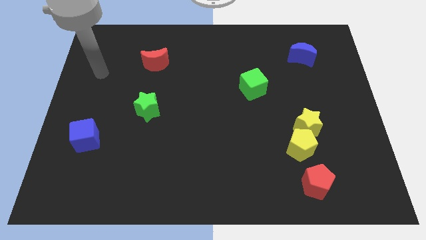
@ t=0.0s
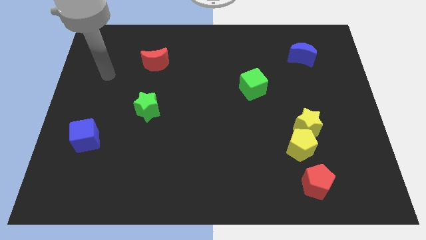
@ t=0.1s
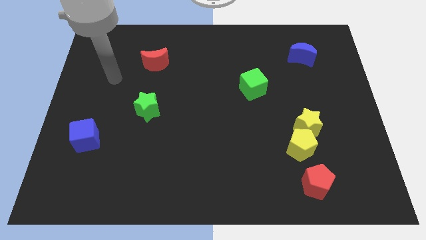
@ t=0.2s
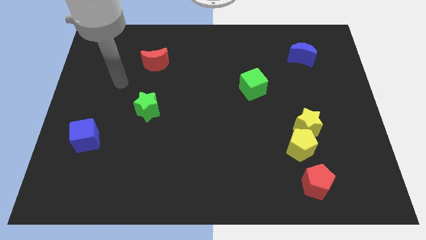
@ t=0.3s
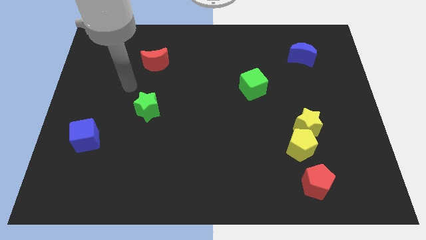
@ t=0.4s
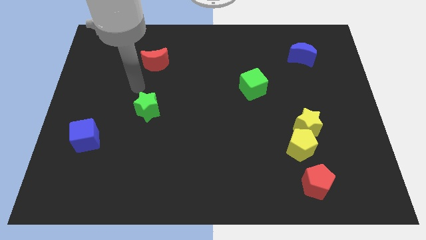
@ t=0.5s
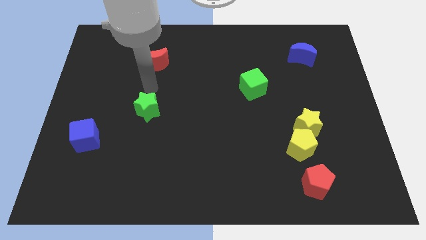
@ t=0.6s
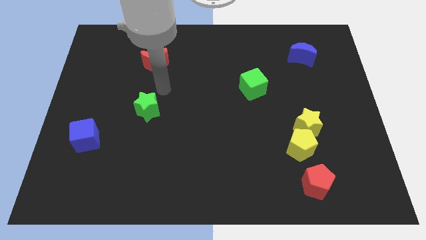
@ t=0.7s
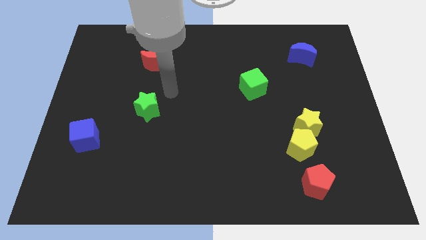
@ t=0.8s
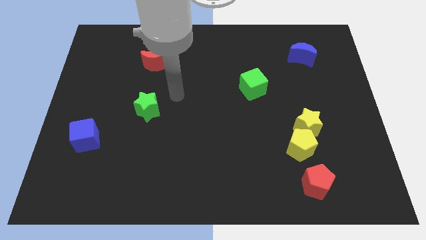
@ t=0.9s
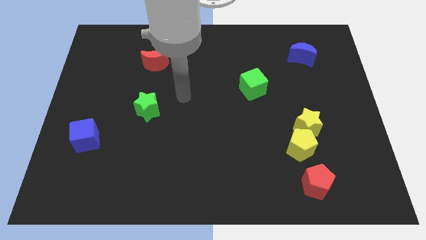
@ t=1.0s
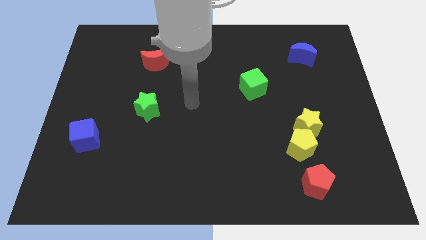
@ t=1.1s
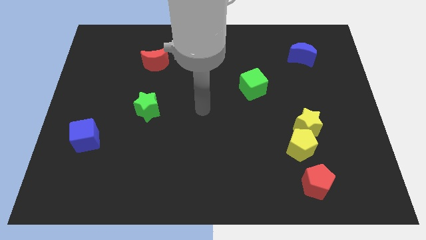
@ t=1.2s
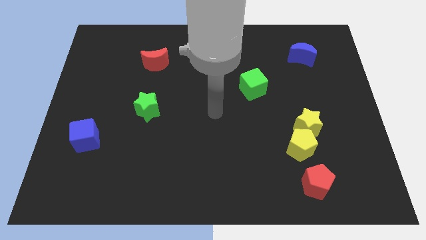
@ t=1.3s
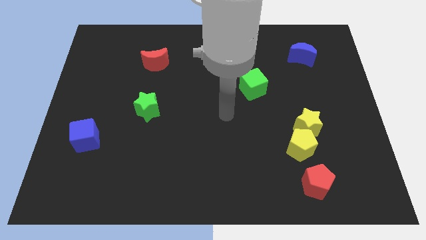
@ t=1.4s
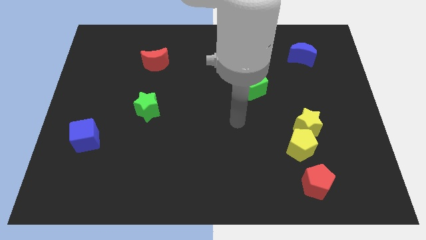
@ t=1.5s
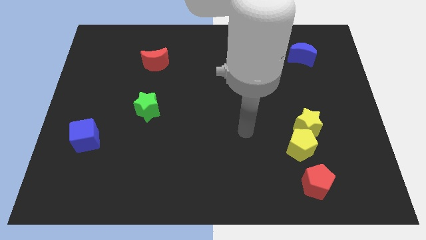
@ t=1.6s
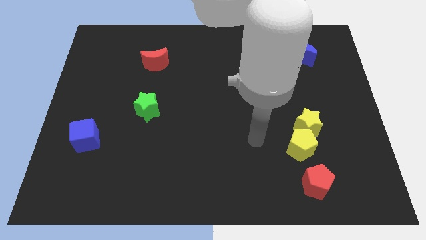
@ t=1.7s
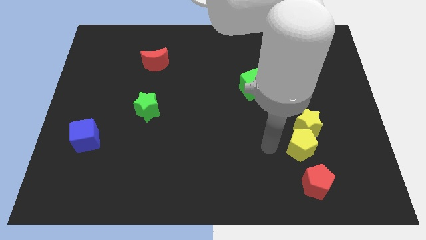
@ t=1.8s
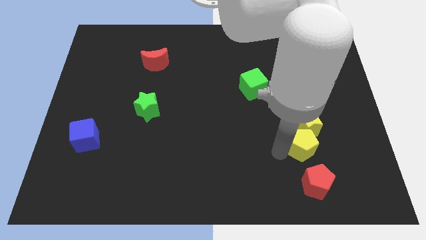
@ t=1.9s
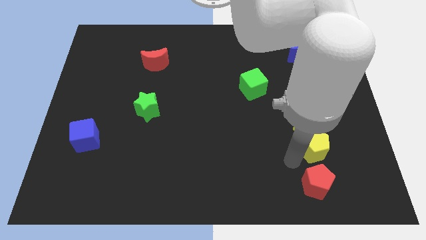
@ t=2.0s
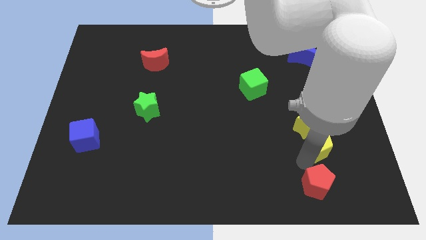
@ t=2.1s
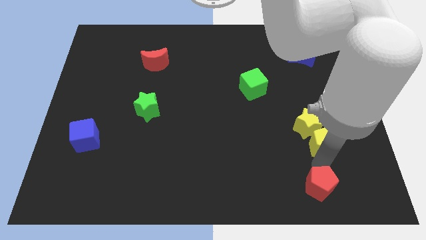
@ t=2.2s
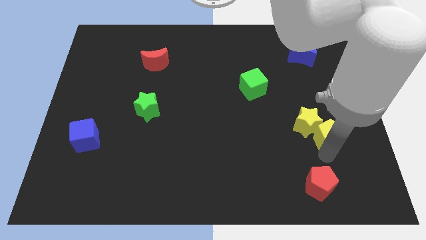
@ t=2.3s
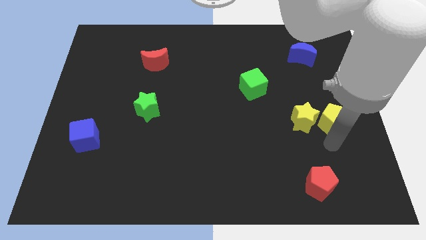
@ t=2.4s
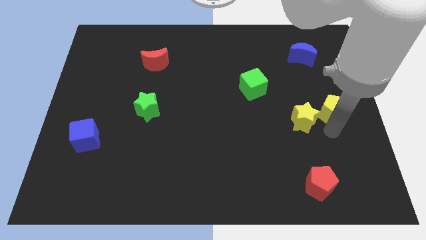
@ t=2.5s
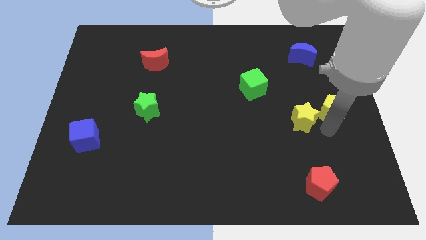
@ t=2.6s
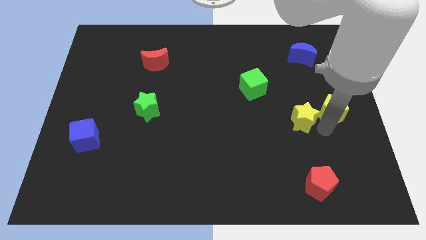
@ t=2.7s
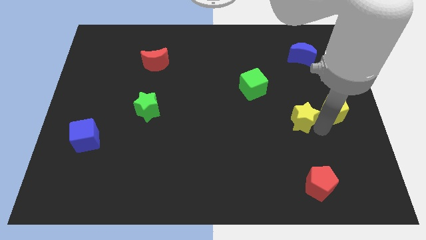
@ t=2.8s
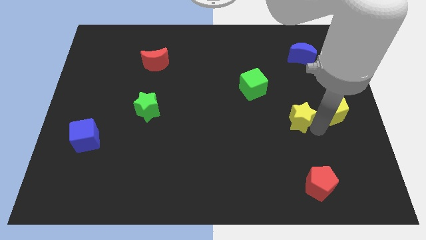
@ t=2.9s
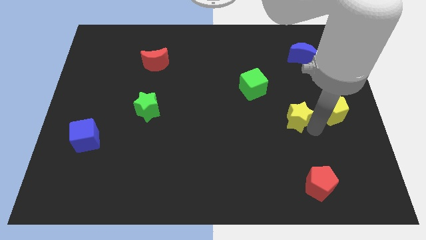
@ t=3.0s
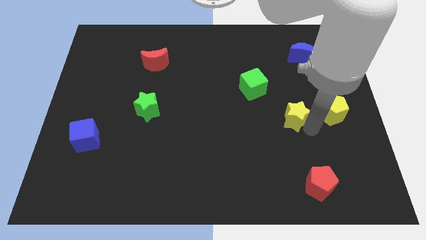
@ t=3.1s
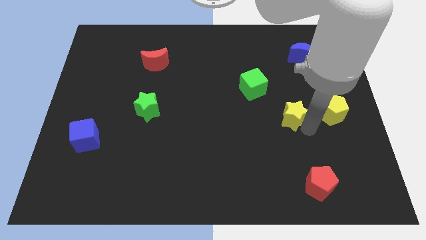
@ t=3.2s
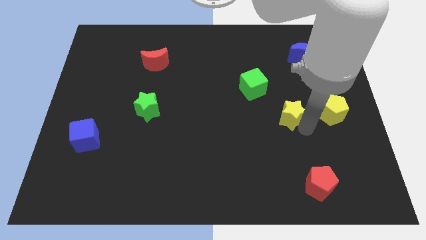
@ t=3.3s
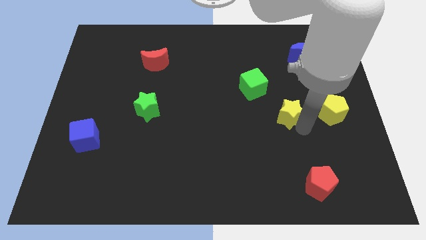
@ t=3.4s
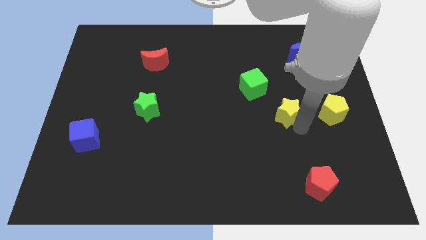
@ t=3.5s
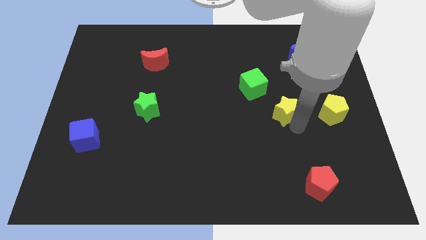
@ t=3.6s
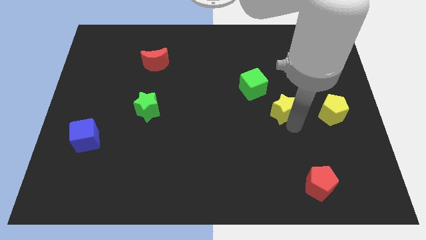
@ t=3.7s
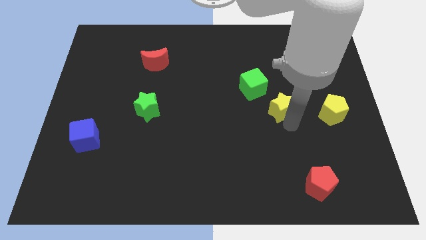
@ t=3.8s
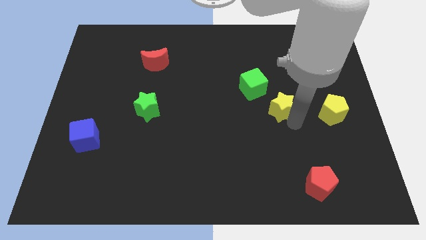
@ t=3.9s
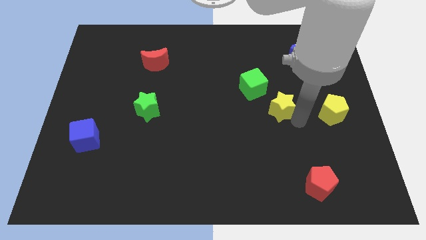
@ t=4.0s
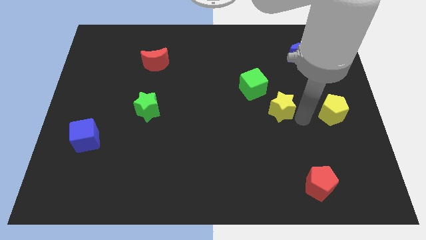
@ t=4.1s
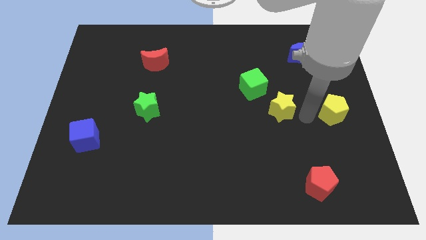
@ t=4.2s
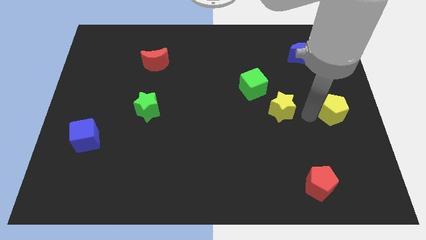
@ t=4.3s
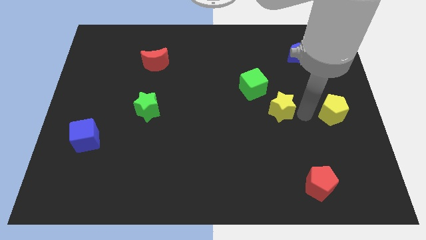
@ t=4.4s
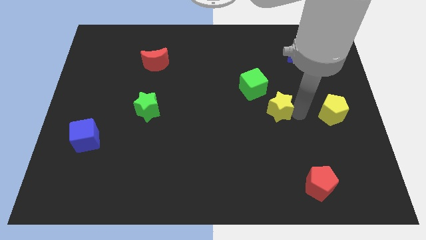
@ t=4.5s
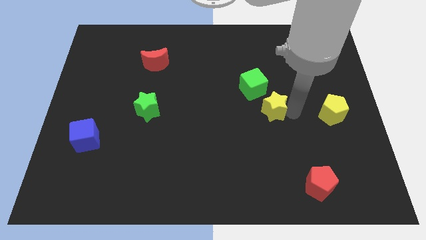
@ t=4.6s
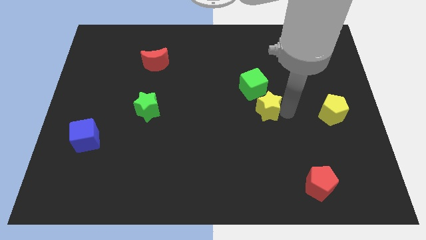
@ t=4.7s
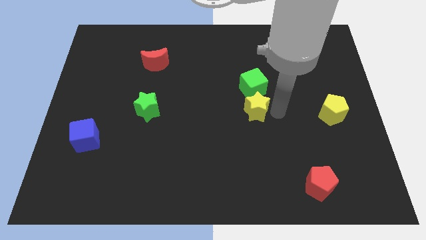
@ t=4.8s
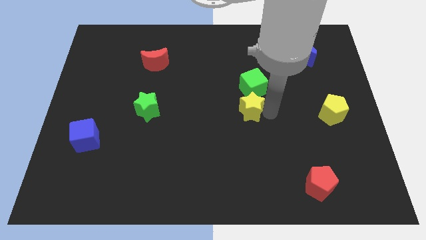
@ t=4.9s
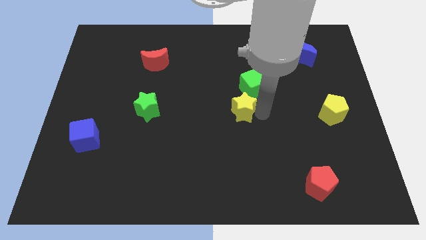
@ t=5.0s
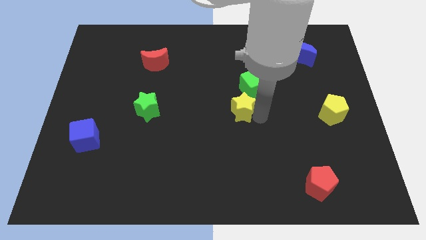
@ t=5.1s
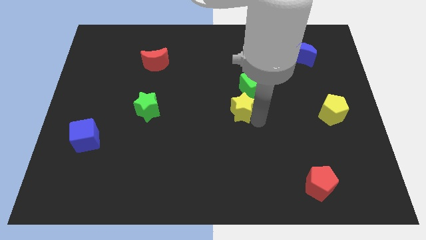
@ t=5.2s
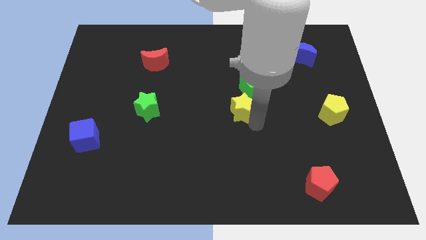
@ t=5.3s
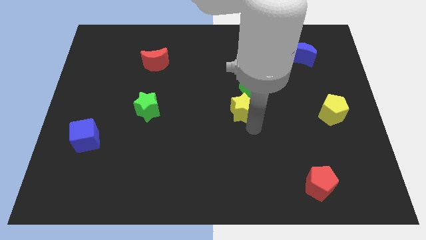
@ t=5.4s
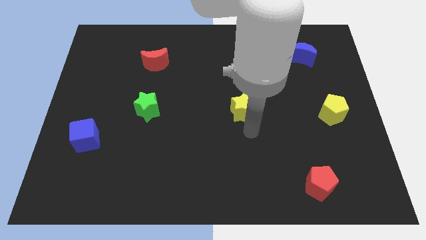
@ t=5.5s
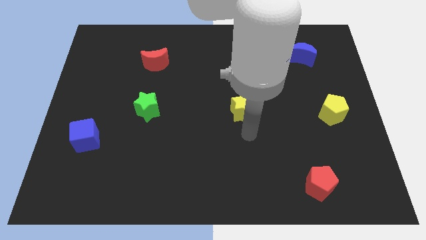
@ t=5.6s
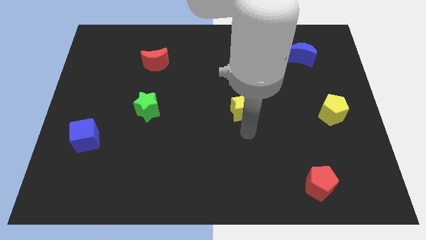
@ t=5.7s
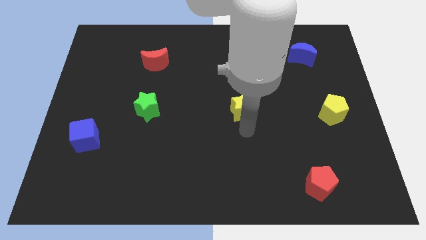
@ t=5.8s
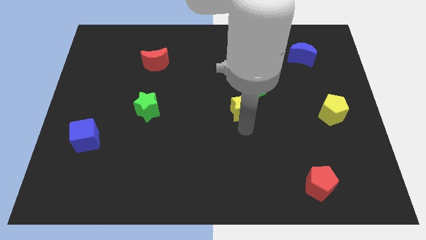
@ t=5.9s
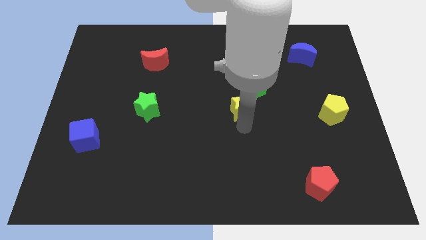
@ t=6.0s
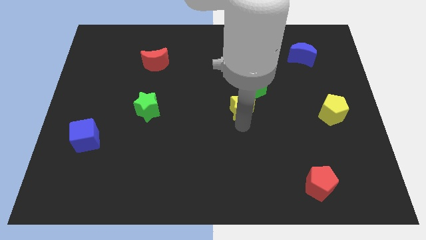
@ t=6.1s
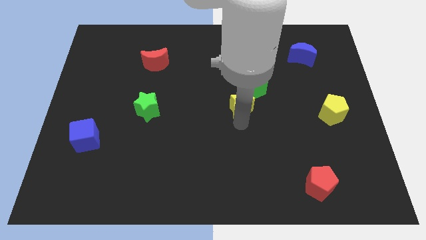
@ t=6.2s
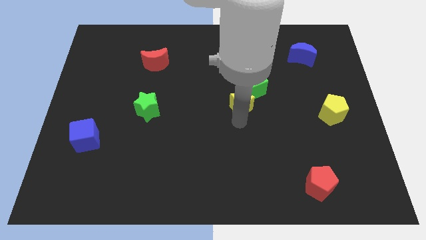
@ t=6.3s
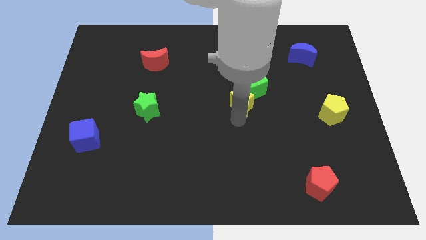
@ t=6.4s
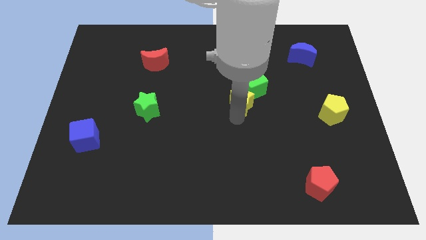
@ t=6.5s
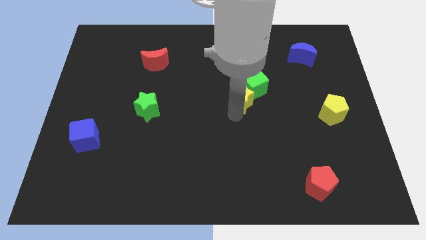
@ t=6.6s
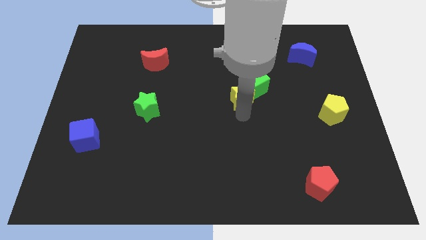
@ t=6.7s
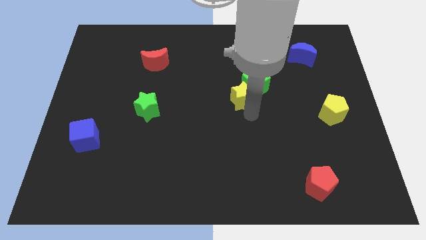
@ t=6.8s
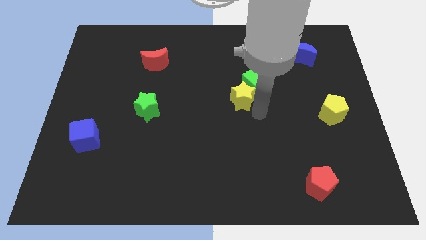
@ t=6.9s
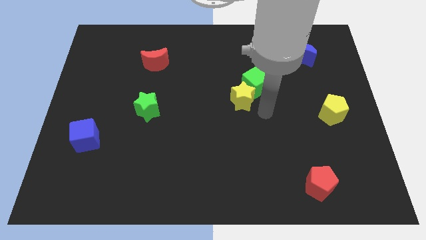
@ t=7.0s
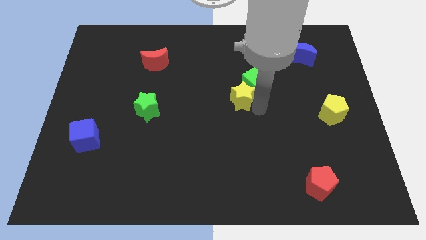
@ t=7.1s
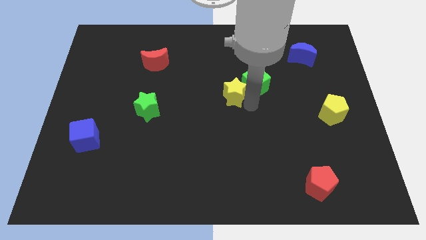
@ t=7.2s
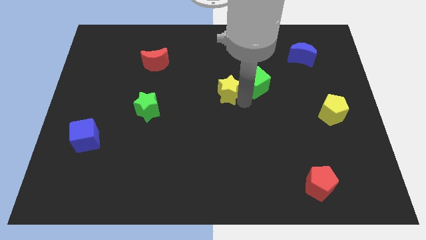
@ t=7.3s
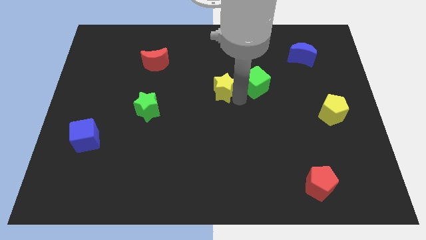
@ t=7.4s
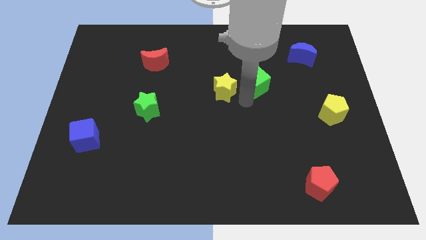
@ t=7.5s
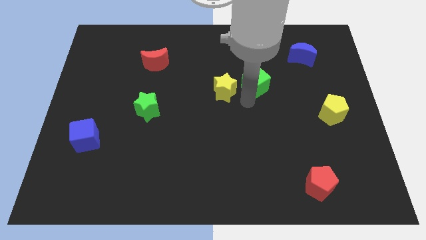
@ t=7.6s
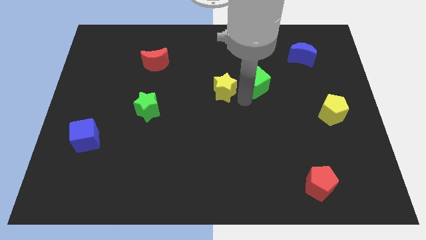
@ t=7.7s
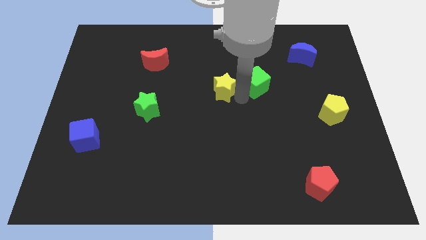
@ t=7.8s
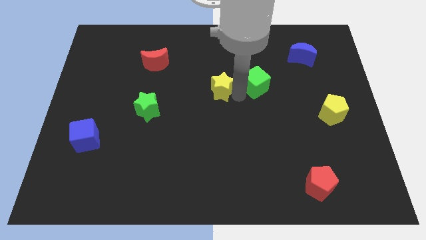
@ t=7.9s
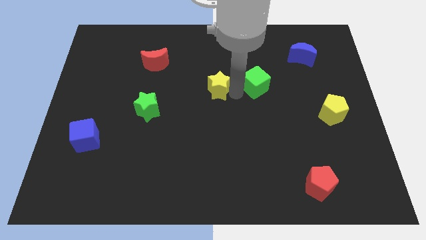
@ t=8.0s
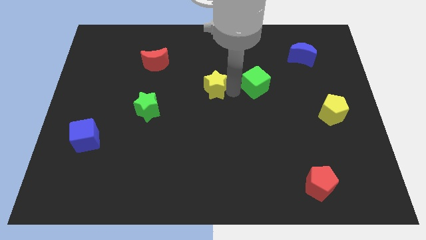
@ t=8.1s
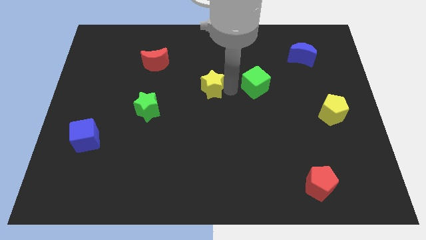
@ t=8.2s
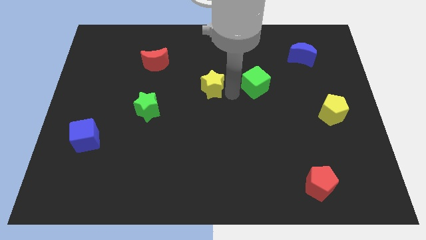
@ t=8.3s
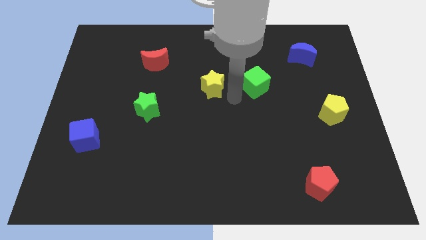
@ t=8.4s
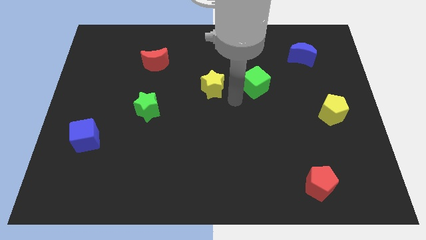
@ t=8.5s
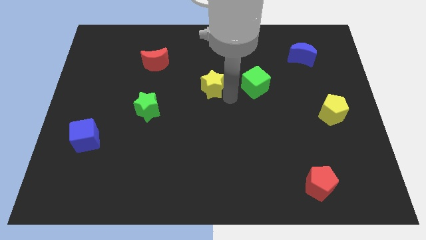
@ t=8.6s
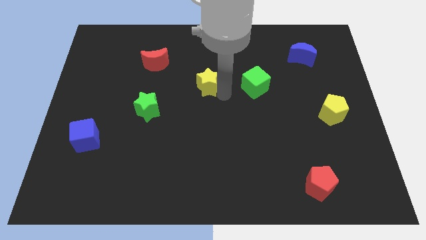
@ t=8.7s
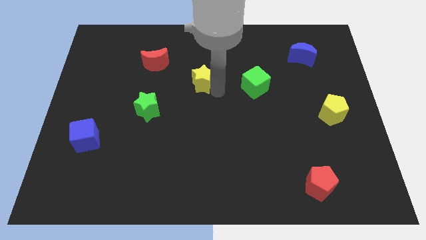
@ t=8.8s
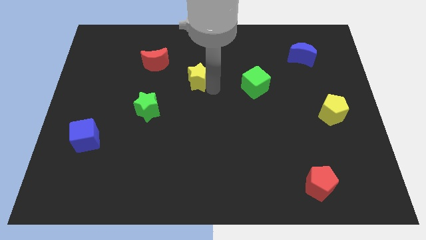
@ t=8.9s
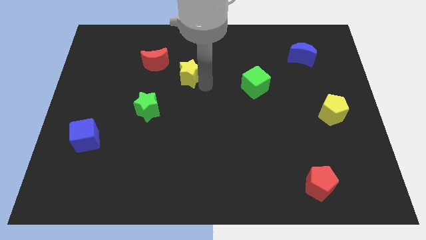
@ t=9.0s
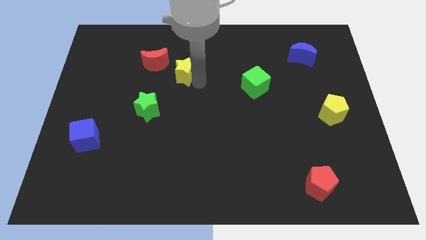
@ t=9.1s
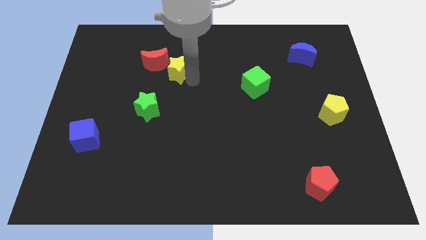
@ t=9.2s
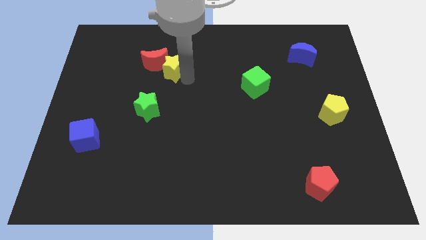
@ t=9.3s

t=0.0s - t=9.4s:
slide the yellow star next to the red moon
